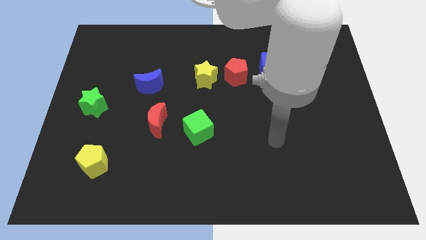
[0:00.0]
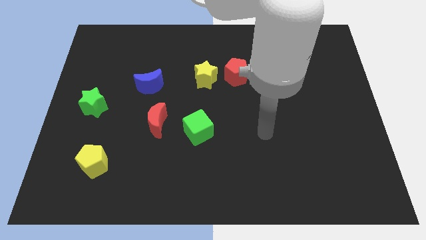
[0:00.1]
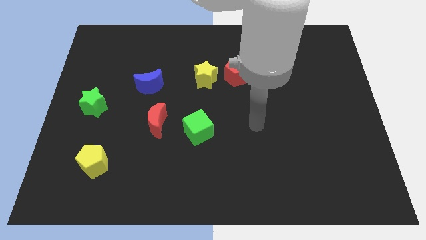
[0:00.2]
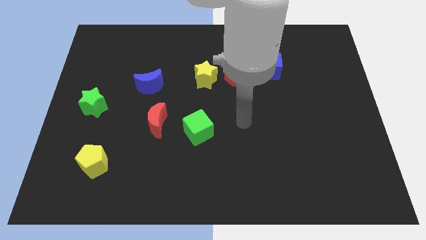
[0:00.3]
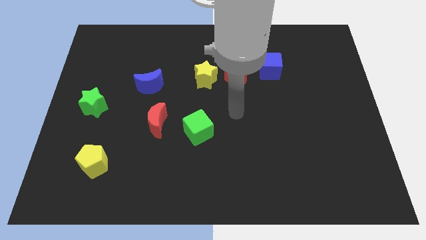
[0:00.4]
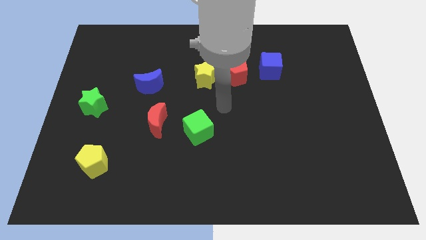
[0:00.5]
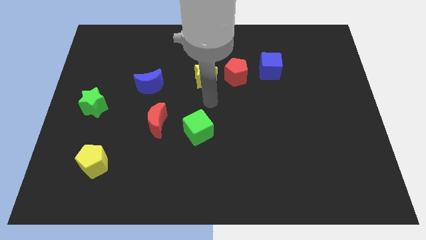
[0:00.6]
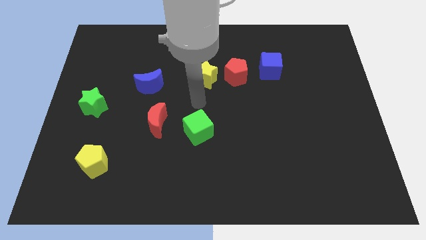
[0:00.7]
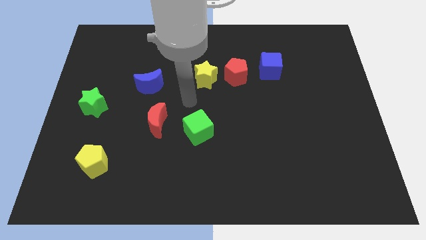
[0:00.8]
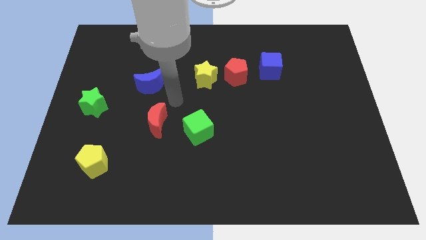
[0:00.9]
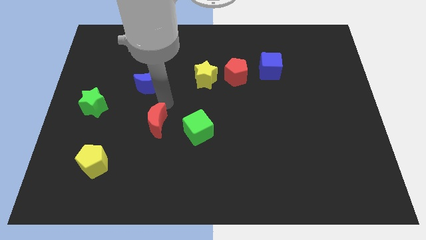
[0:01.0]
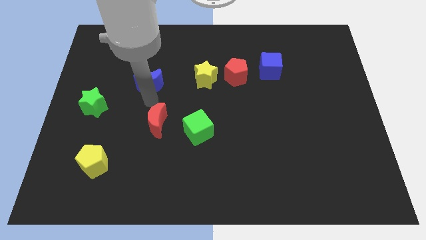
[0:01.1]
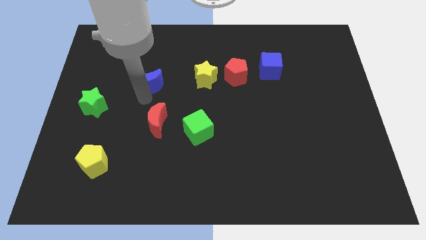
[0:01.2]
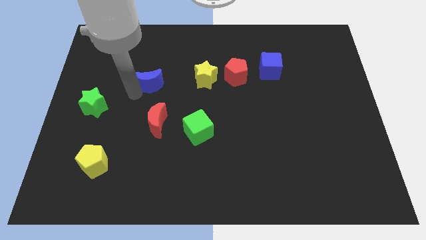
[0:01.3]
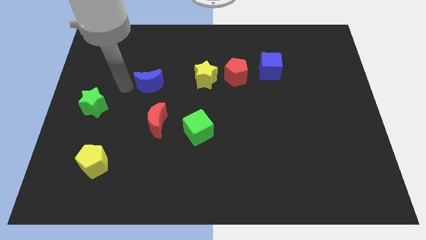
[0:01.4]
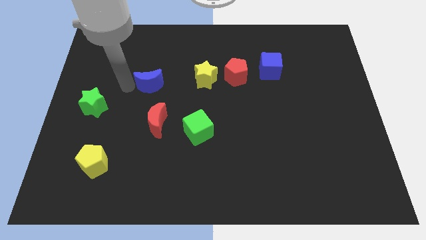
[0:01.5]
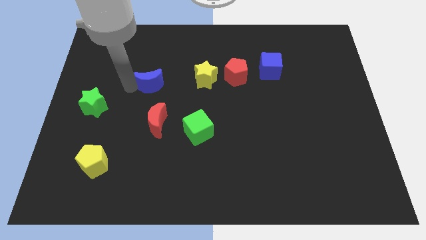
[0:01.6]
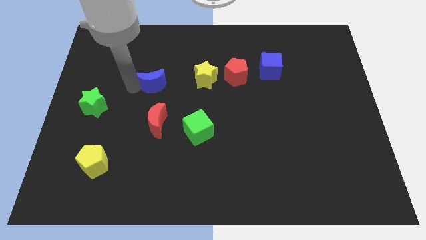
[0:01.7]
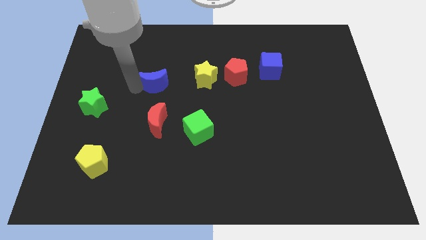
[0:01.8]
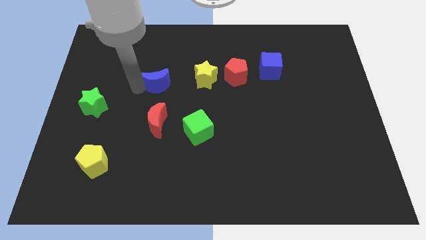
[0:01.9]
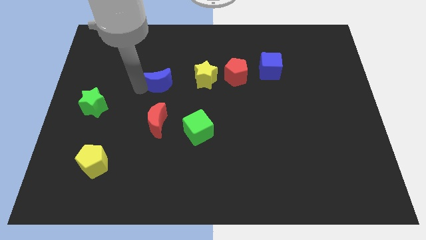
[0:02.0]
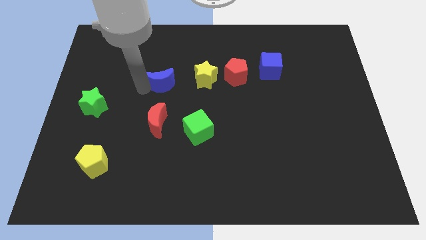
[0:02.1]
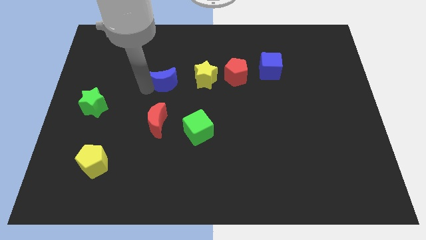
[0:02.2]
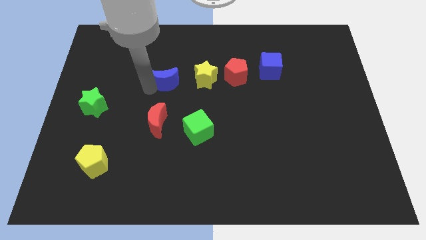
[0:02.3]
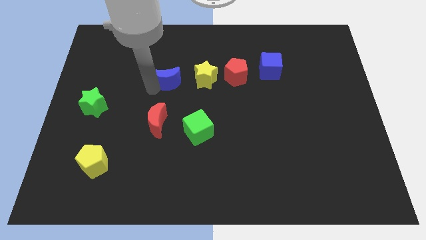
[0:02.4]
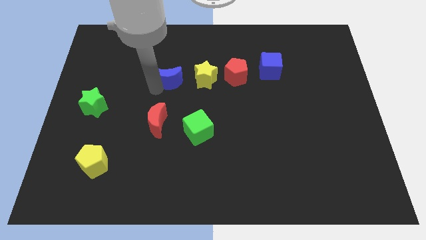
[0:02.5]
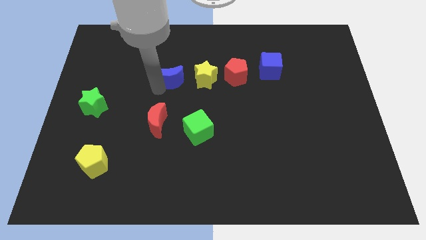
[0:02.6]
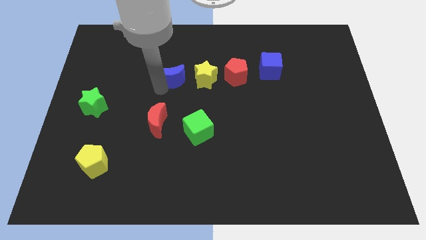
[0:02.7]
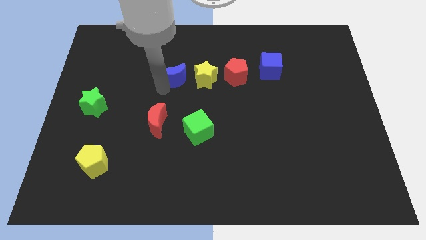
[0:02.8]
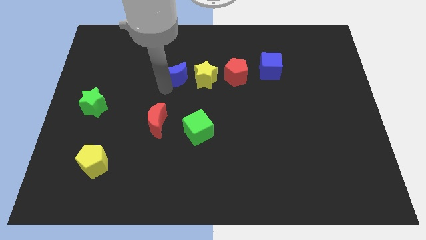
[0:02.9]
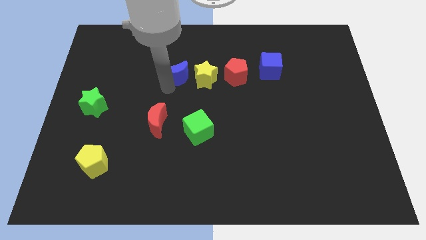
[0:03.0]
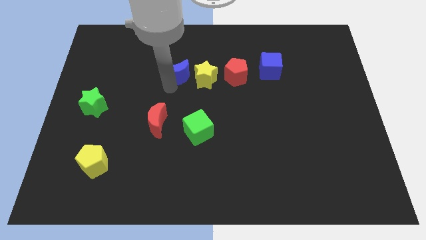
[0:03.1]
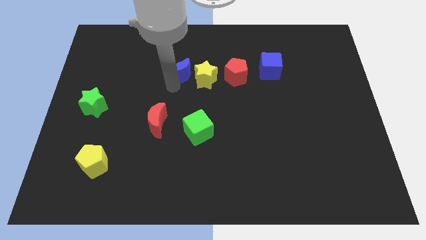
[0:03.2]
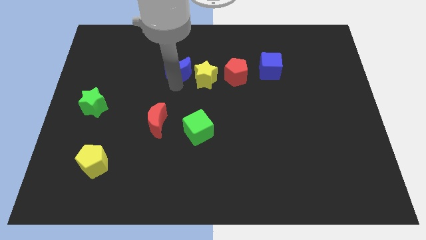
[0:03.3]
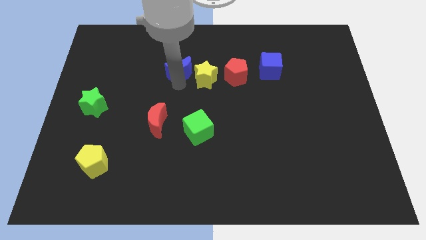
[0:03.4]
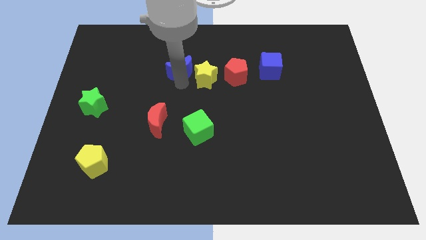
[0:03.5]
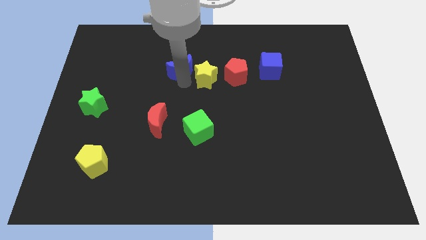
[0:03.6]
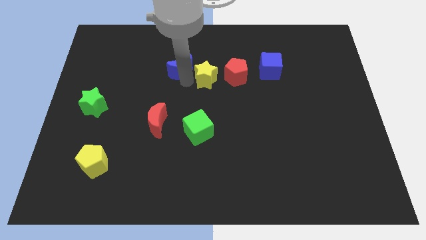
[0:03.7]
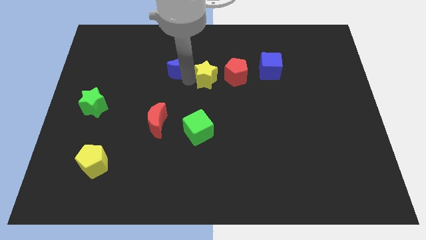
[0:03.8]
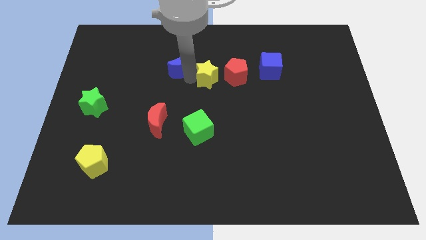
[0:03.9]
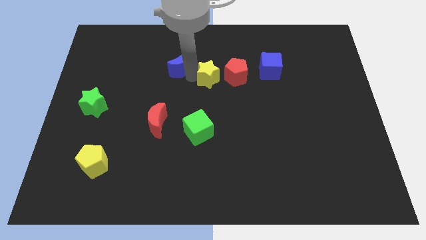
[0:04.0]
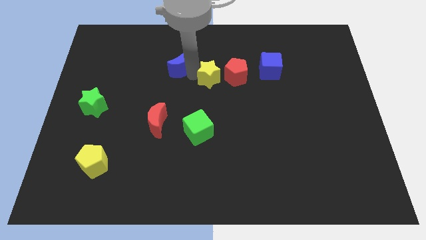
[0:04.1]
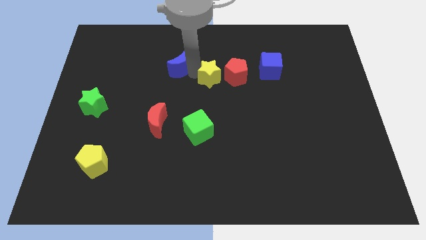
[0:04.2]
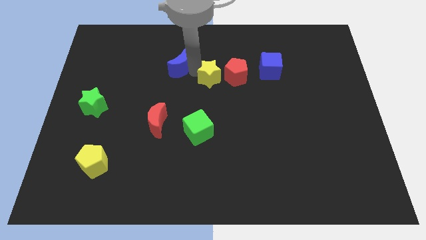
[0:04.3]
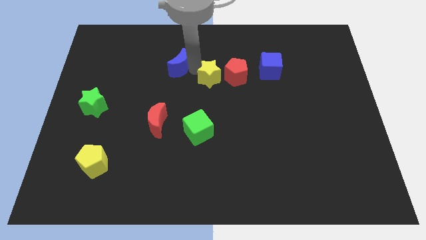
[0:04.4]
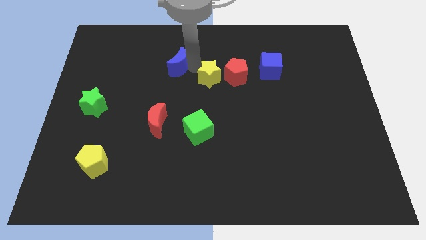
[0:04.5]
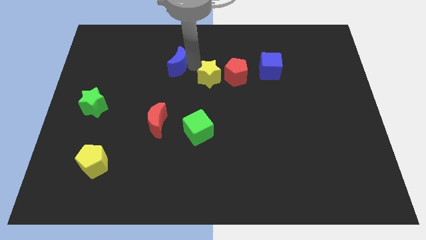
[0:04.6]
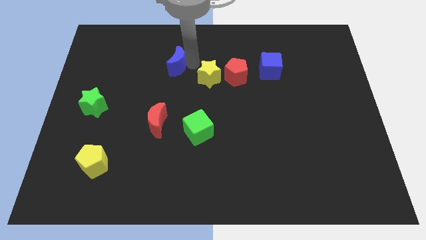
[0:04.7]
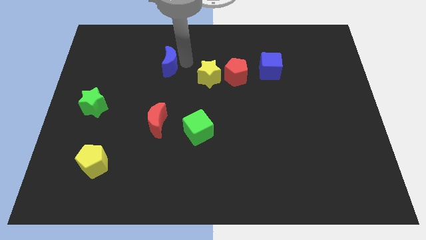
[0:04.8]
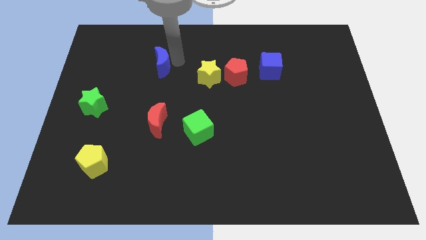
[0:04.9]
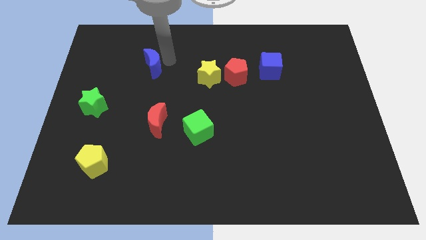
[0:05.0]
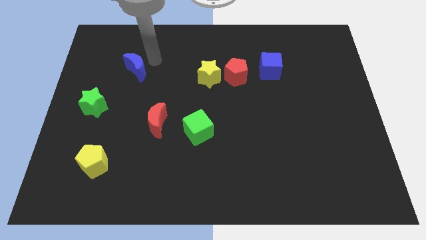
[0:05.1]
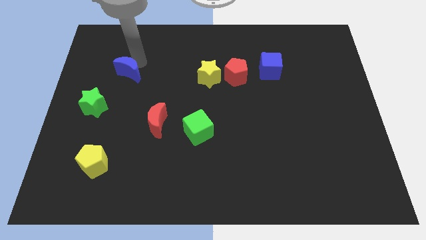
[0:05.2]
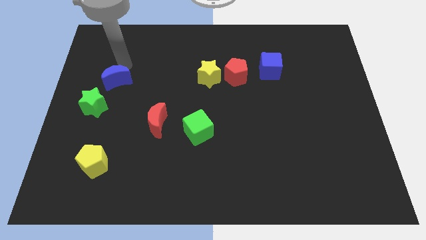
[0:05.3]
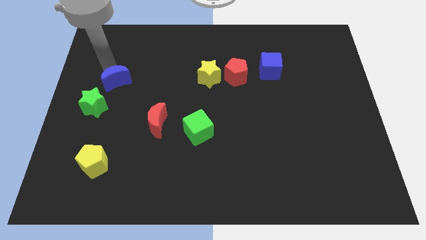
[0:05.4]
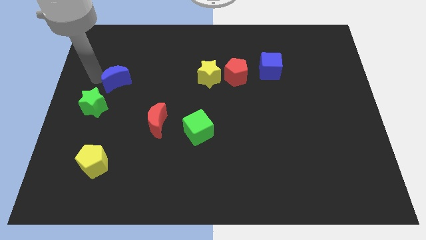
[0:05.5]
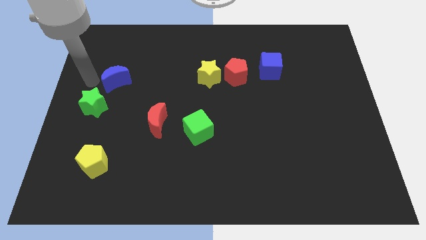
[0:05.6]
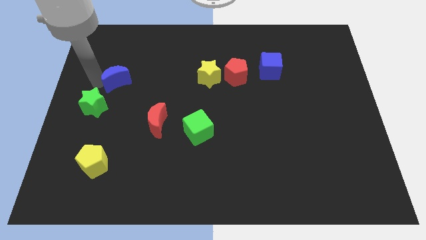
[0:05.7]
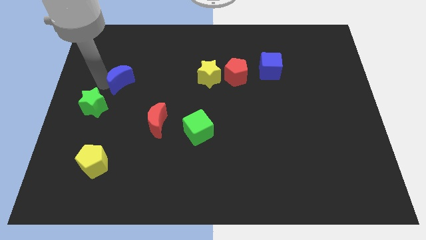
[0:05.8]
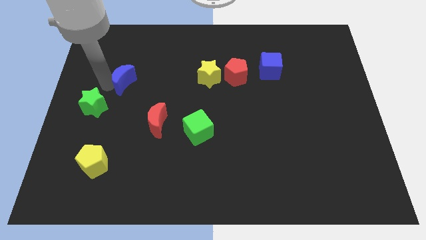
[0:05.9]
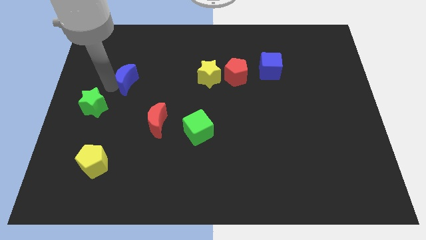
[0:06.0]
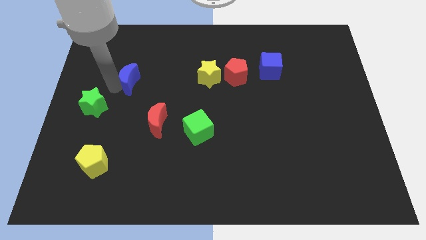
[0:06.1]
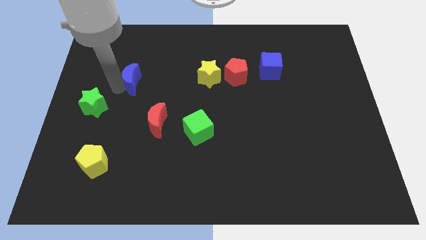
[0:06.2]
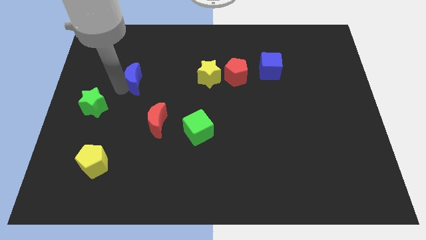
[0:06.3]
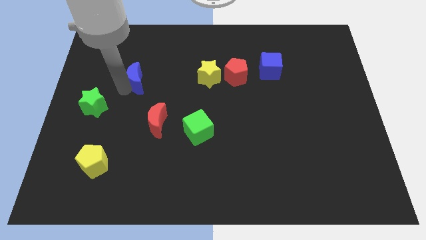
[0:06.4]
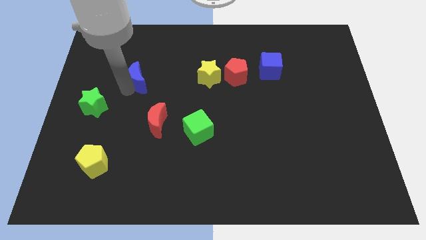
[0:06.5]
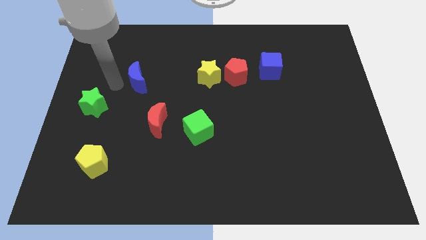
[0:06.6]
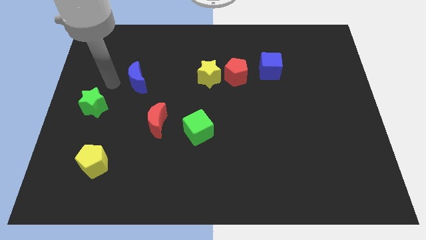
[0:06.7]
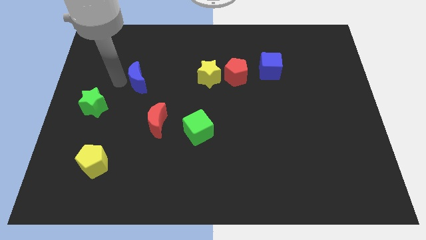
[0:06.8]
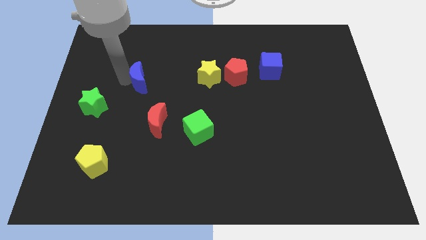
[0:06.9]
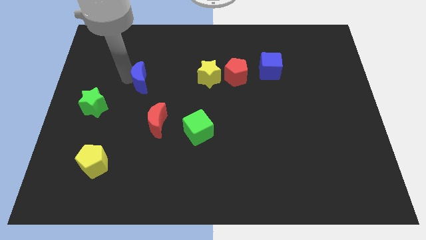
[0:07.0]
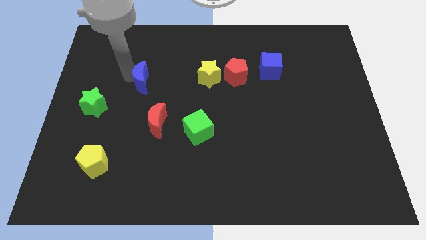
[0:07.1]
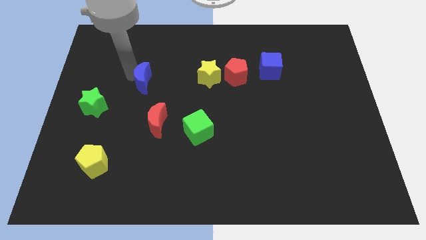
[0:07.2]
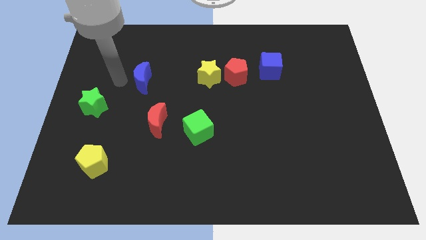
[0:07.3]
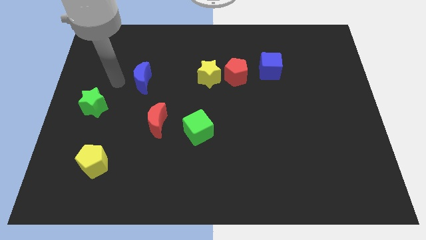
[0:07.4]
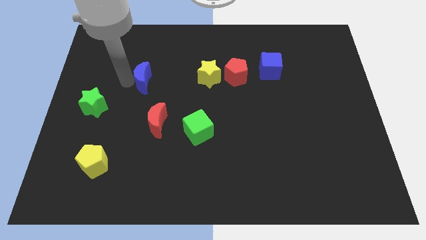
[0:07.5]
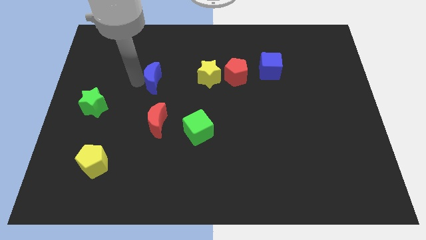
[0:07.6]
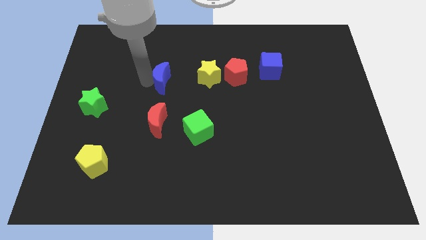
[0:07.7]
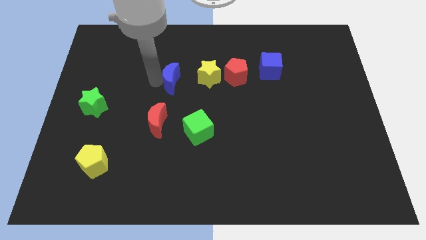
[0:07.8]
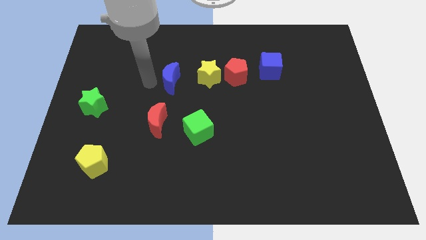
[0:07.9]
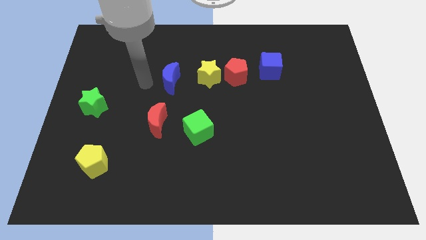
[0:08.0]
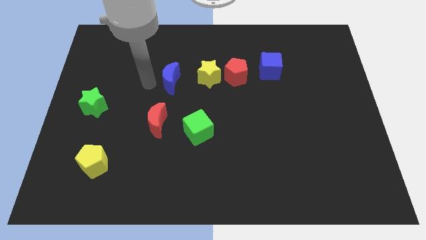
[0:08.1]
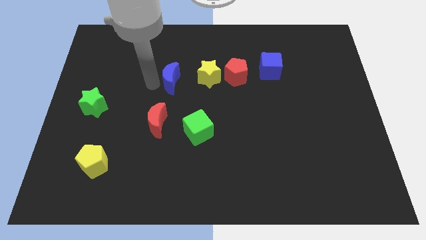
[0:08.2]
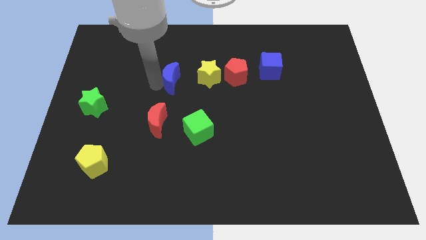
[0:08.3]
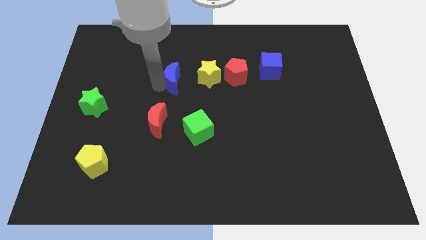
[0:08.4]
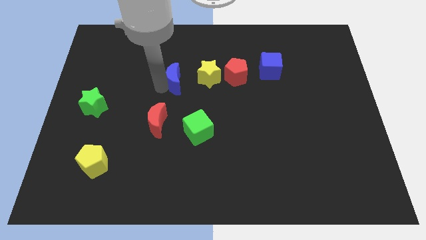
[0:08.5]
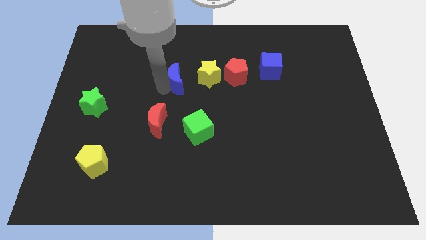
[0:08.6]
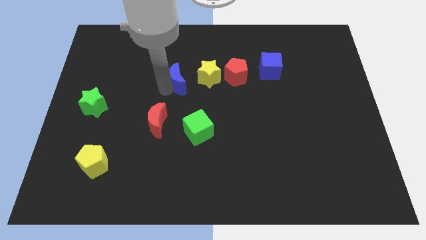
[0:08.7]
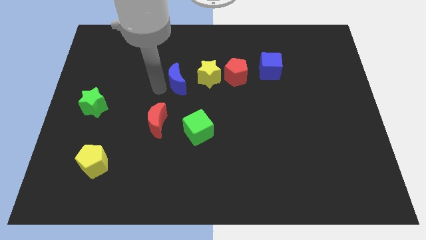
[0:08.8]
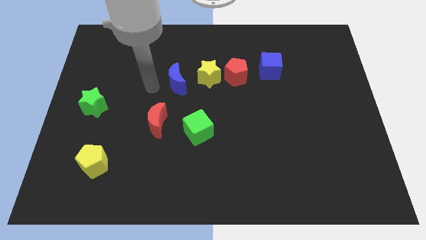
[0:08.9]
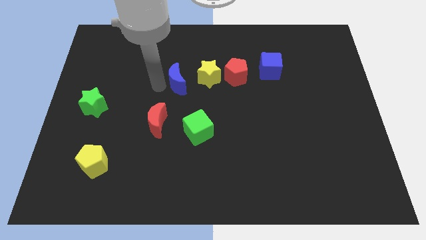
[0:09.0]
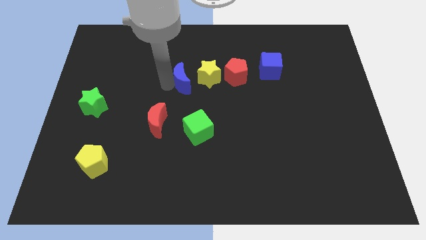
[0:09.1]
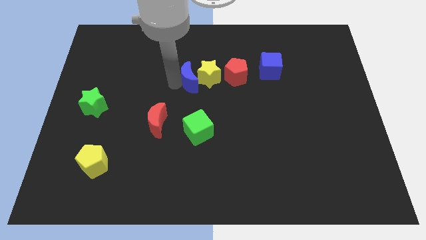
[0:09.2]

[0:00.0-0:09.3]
move the blue moon close to the yellow star
